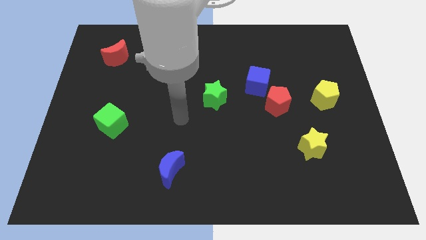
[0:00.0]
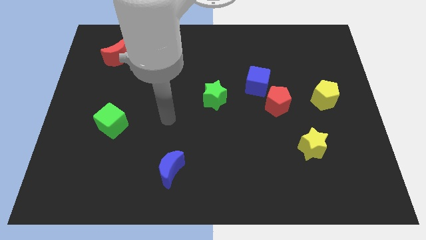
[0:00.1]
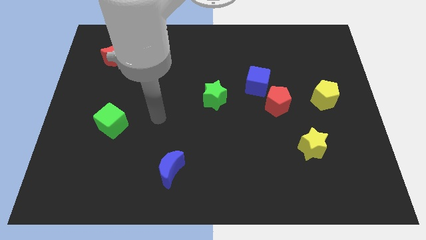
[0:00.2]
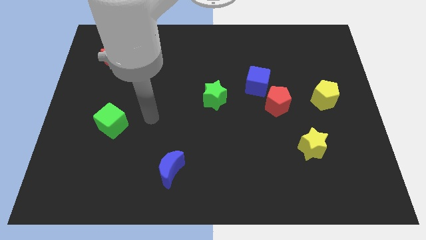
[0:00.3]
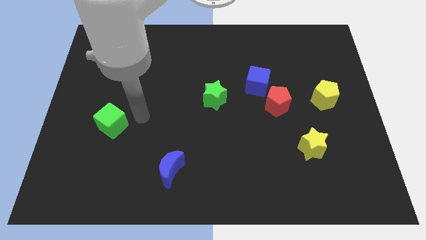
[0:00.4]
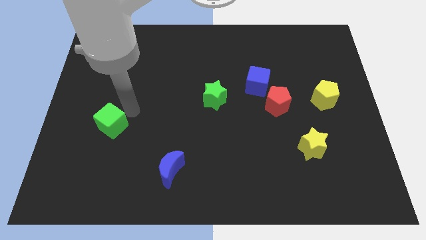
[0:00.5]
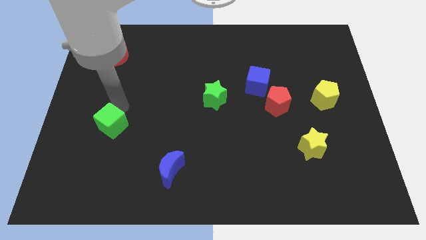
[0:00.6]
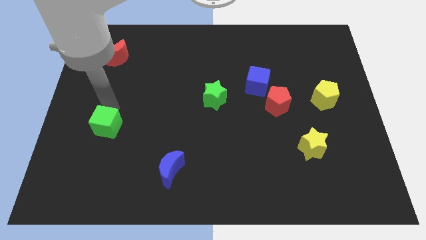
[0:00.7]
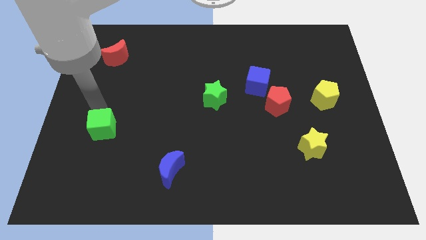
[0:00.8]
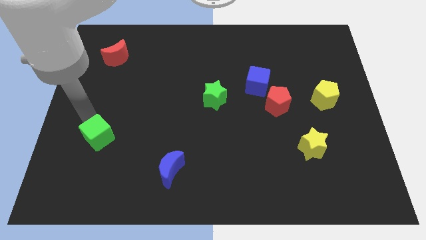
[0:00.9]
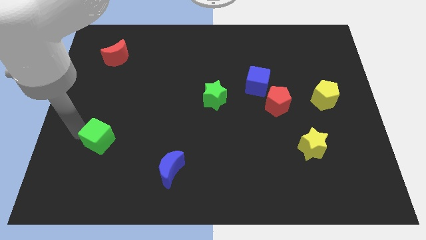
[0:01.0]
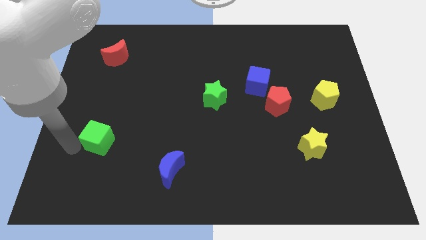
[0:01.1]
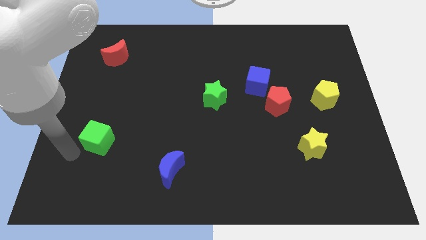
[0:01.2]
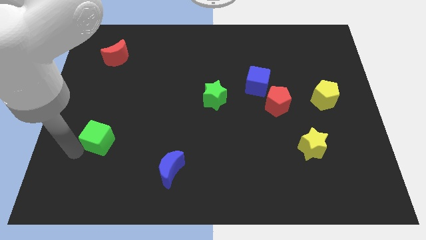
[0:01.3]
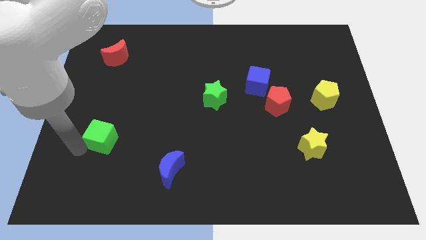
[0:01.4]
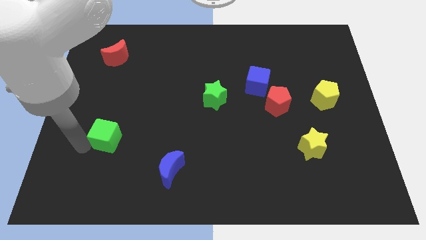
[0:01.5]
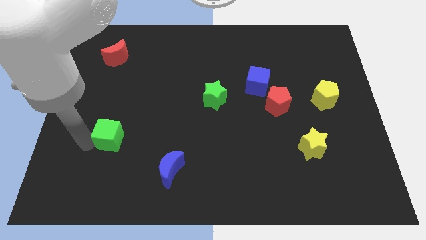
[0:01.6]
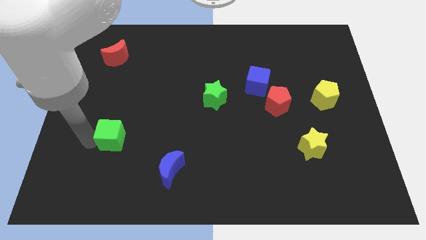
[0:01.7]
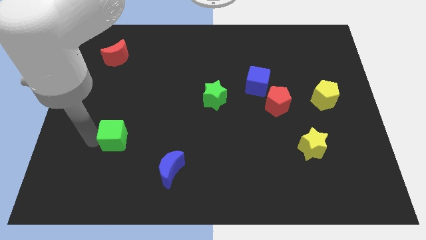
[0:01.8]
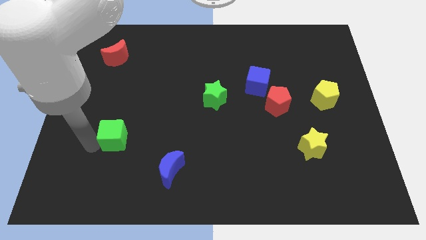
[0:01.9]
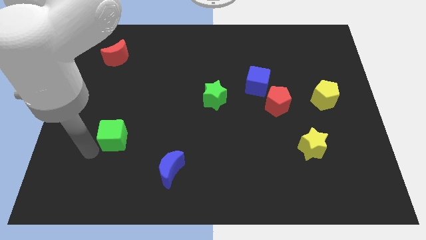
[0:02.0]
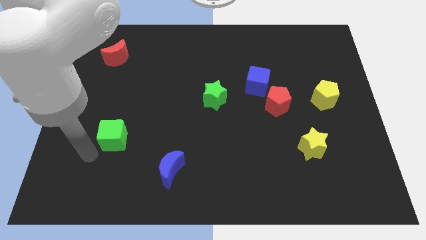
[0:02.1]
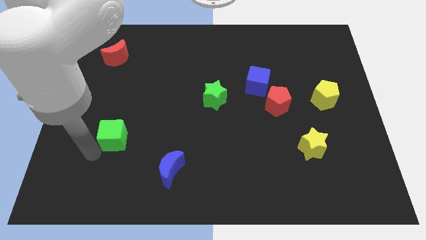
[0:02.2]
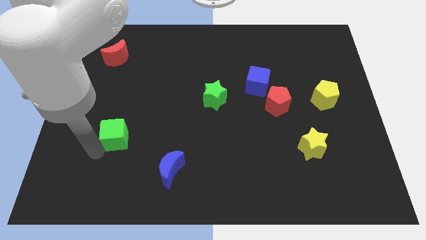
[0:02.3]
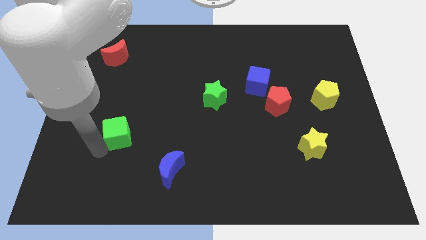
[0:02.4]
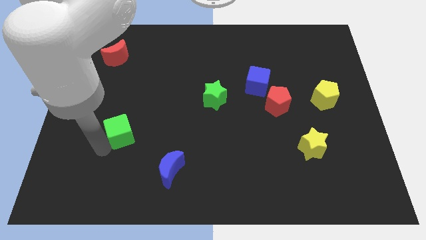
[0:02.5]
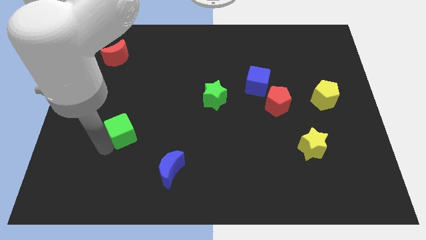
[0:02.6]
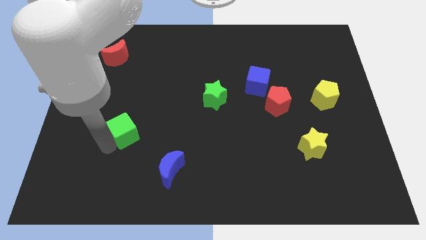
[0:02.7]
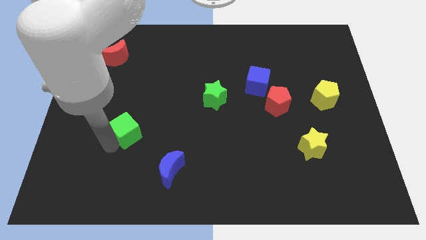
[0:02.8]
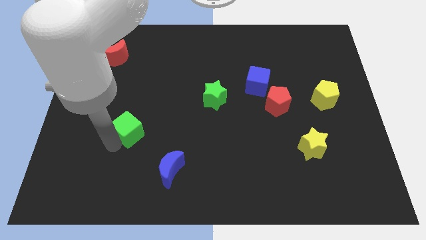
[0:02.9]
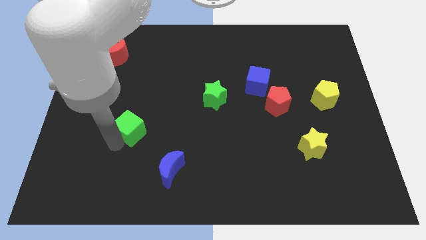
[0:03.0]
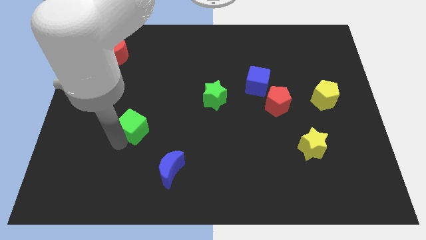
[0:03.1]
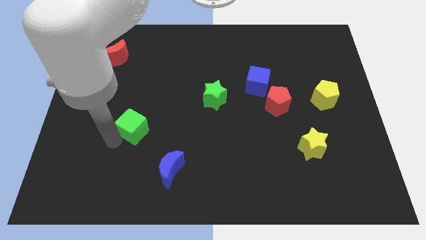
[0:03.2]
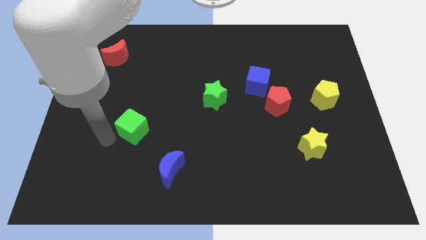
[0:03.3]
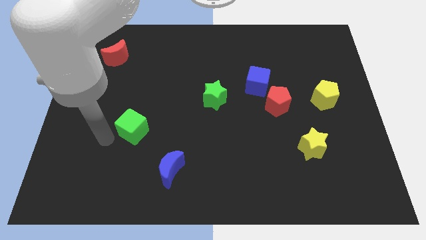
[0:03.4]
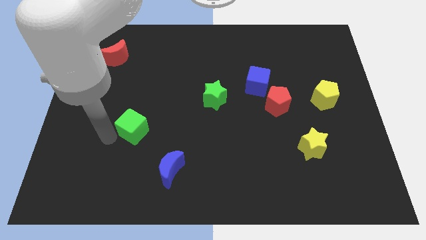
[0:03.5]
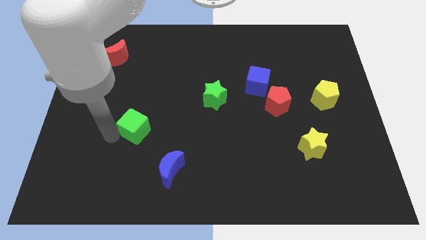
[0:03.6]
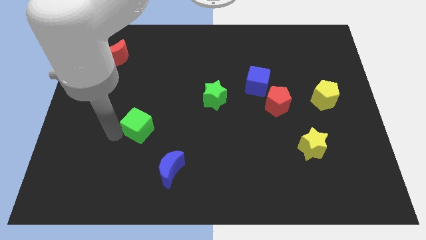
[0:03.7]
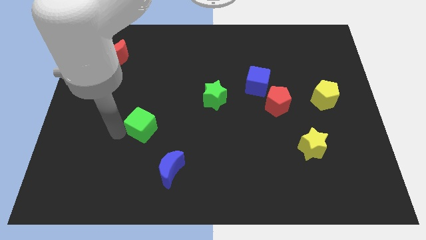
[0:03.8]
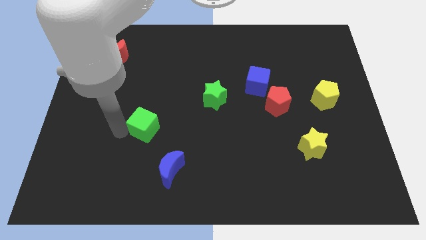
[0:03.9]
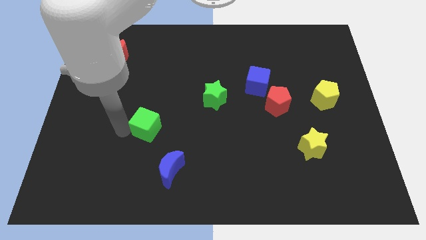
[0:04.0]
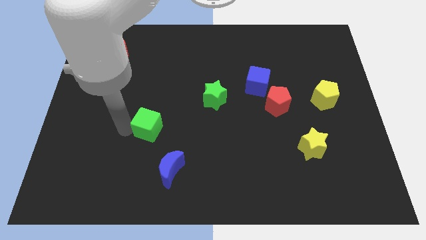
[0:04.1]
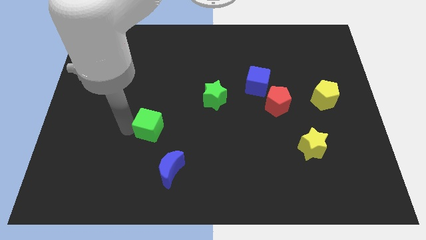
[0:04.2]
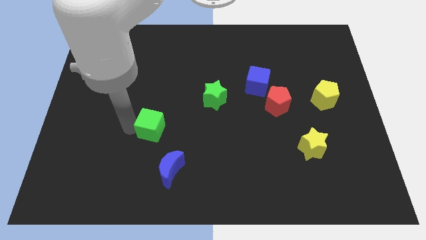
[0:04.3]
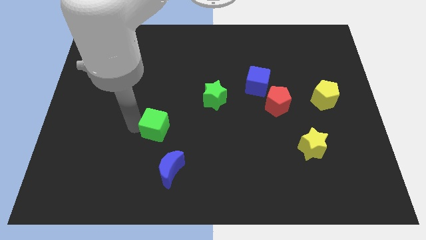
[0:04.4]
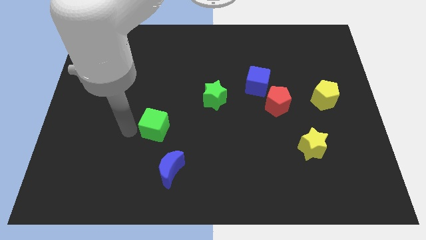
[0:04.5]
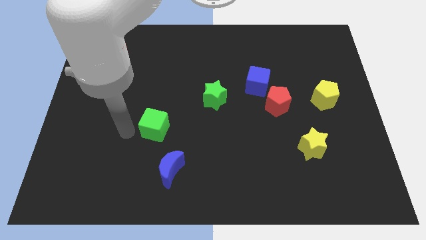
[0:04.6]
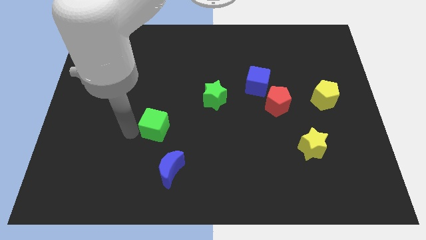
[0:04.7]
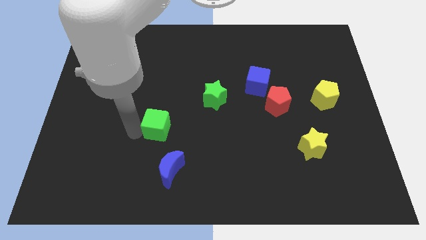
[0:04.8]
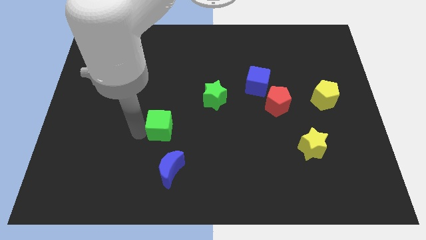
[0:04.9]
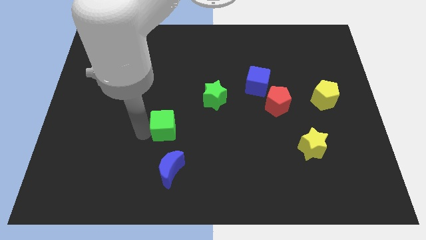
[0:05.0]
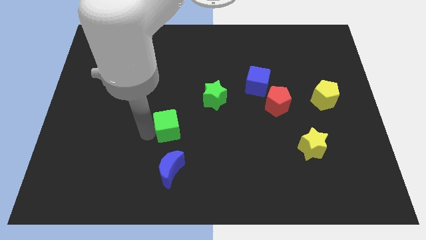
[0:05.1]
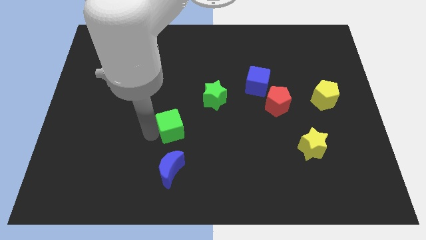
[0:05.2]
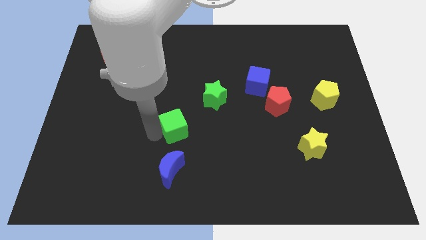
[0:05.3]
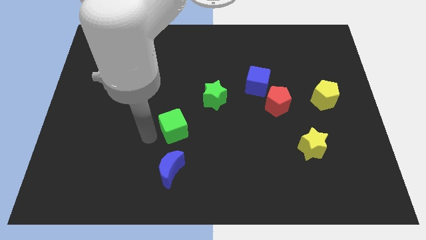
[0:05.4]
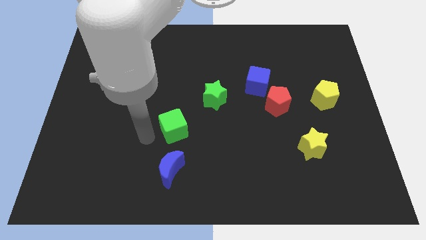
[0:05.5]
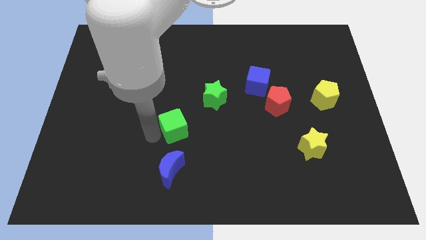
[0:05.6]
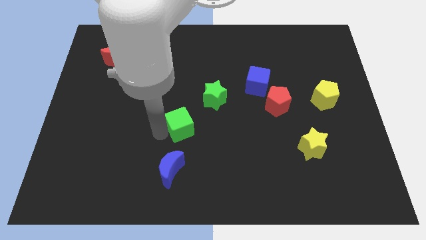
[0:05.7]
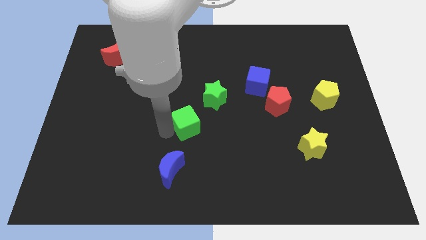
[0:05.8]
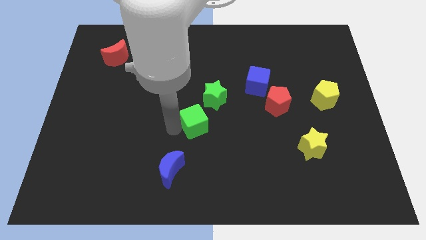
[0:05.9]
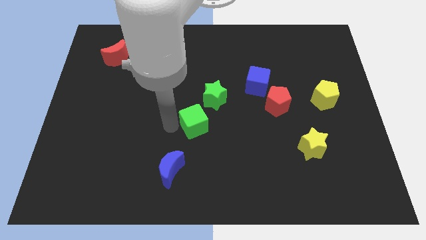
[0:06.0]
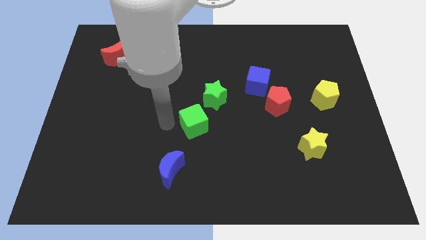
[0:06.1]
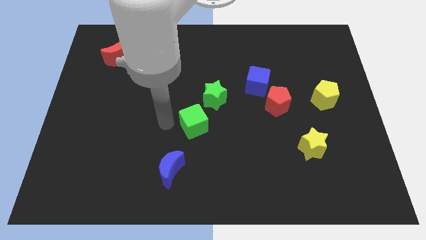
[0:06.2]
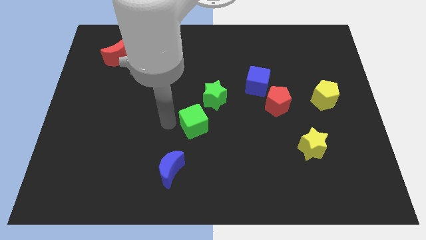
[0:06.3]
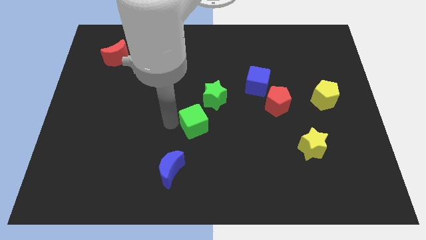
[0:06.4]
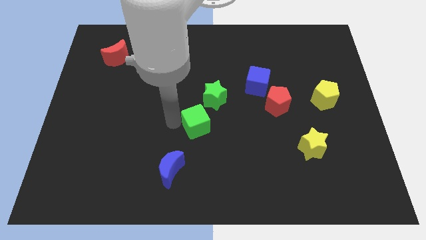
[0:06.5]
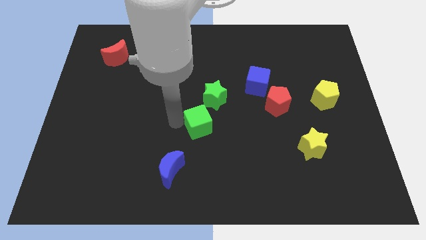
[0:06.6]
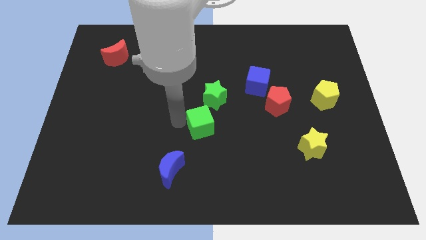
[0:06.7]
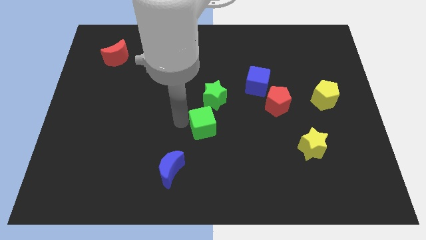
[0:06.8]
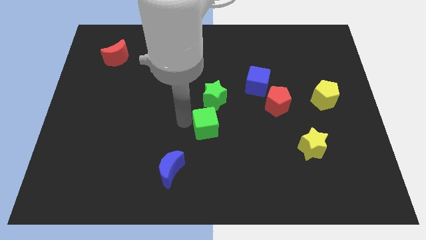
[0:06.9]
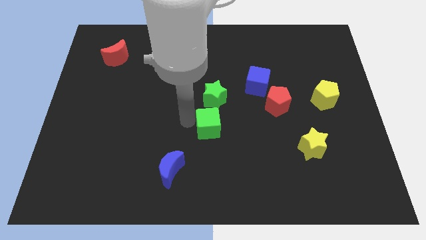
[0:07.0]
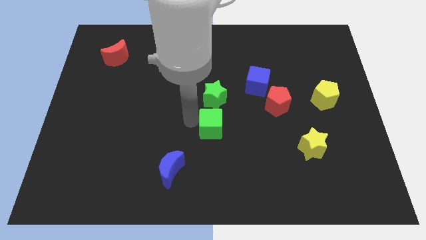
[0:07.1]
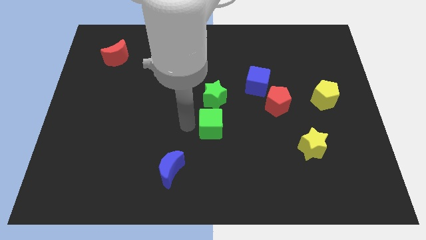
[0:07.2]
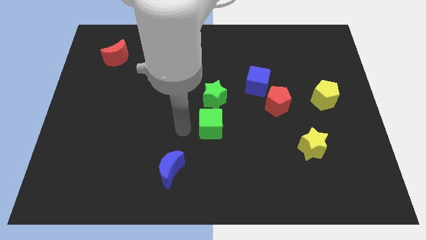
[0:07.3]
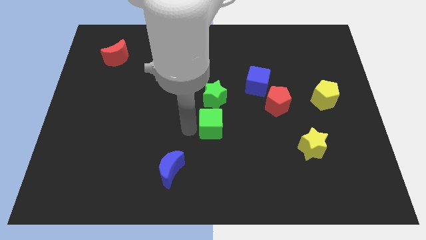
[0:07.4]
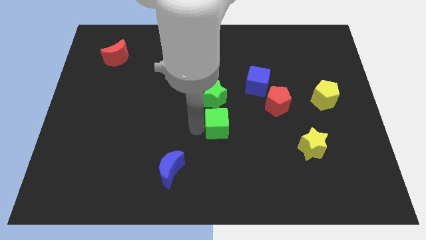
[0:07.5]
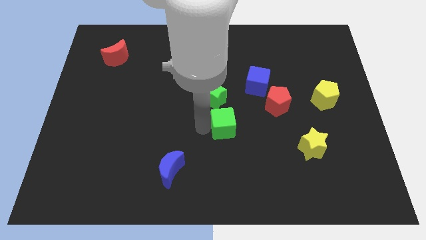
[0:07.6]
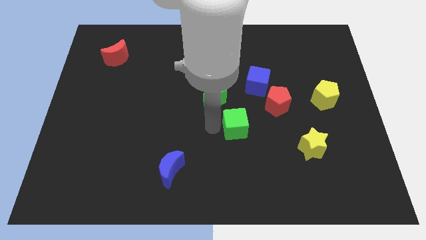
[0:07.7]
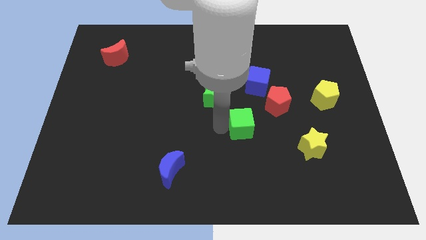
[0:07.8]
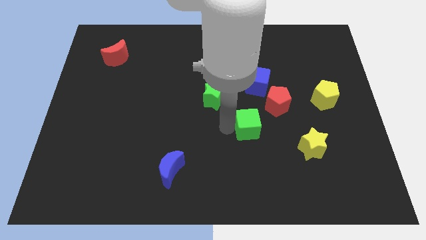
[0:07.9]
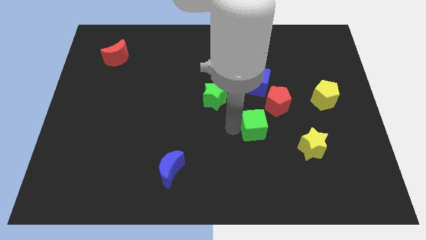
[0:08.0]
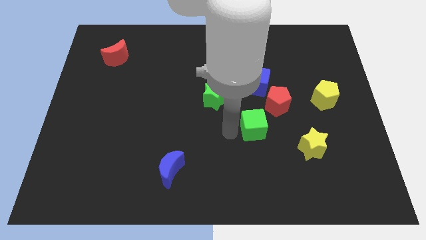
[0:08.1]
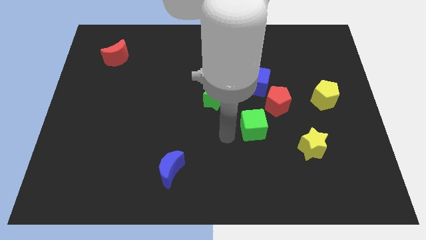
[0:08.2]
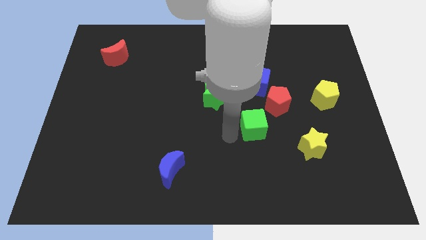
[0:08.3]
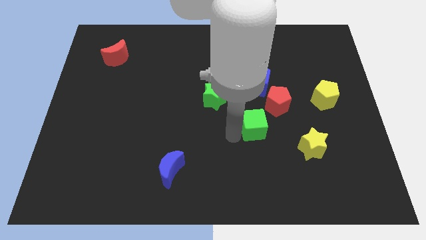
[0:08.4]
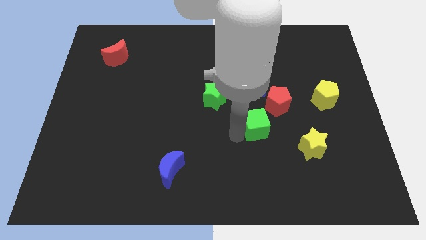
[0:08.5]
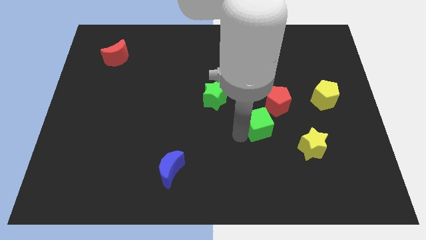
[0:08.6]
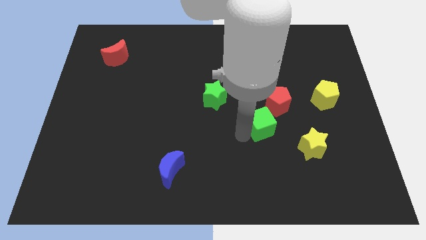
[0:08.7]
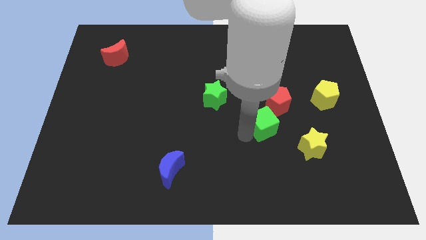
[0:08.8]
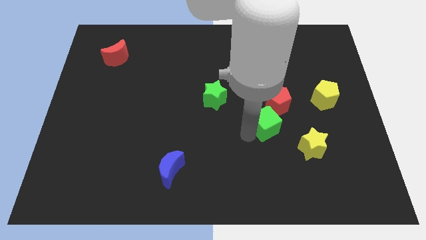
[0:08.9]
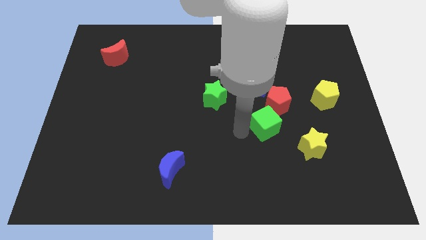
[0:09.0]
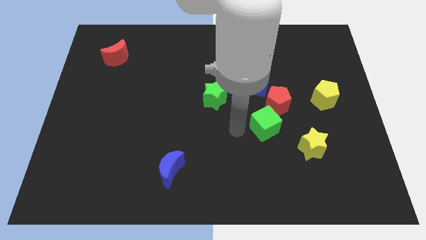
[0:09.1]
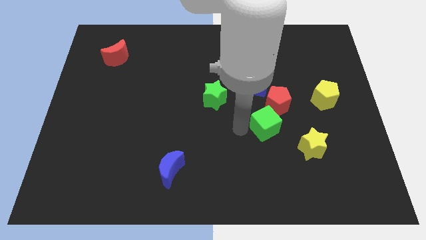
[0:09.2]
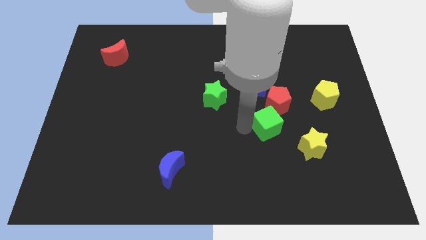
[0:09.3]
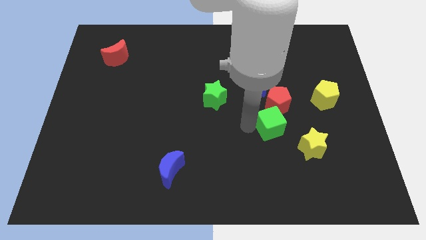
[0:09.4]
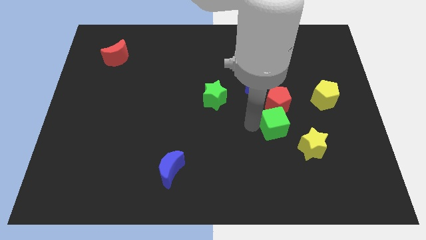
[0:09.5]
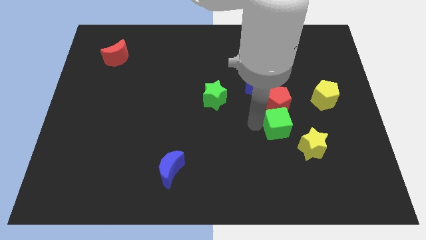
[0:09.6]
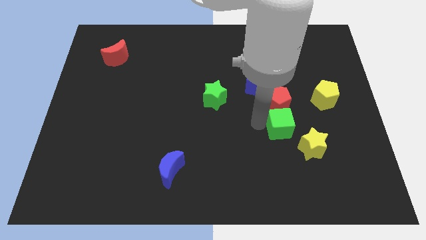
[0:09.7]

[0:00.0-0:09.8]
move the green cube diagonally down and to the right of the red pentagon
